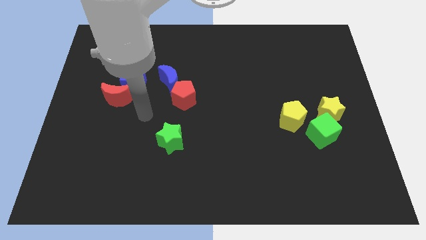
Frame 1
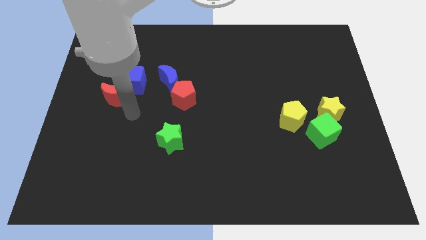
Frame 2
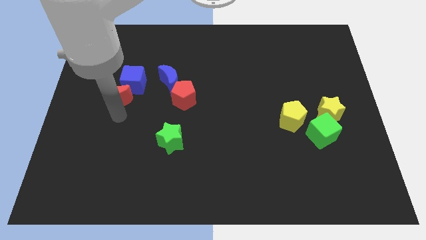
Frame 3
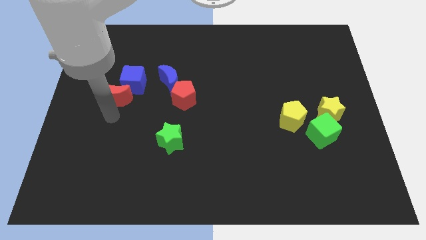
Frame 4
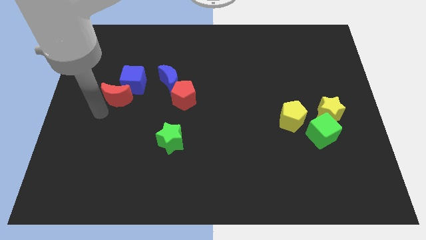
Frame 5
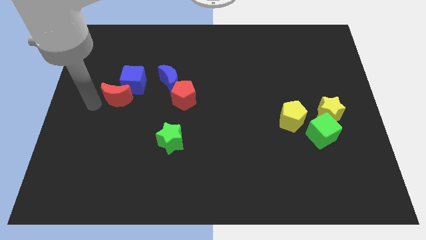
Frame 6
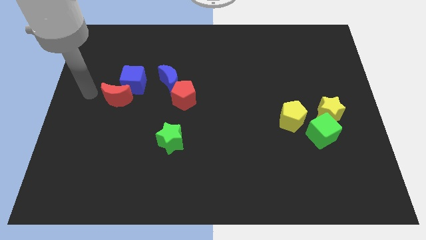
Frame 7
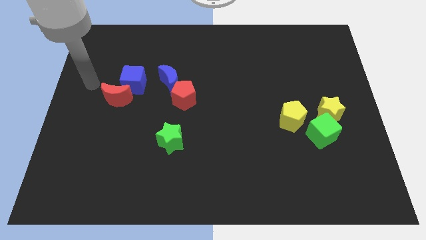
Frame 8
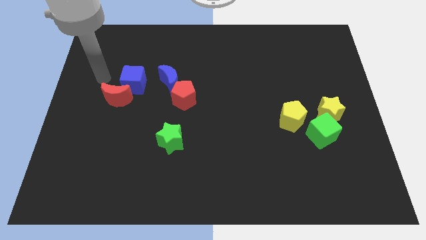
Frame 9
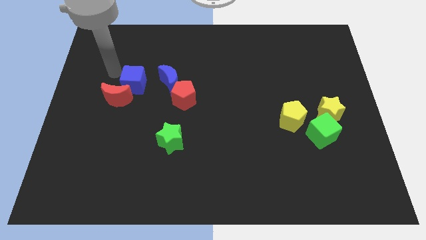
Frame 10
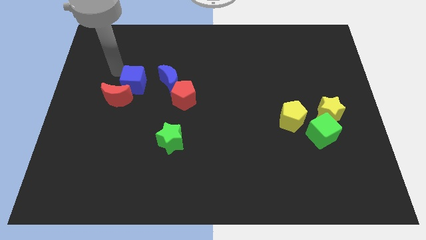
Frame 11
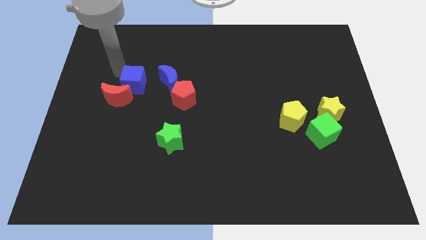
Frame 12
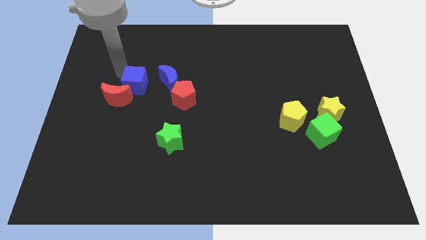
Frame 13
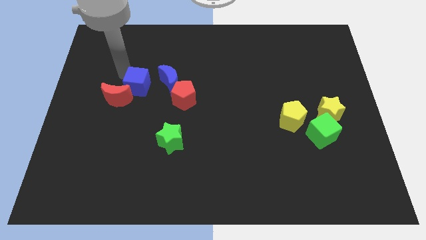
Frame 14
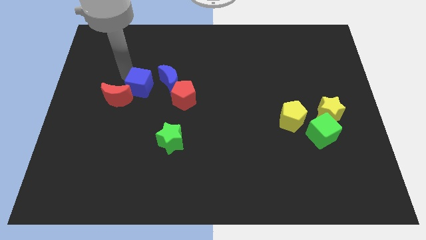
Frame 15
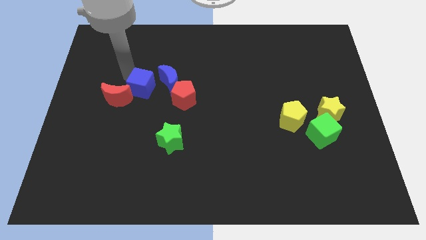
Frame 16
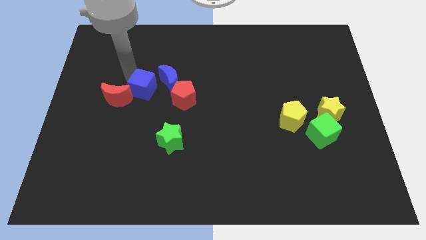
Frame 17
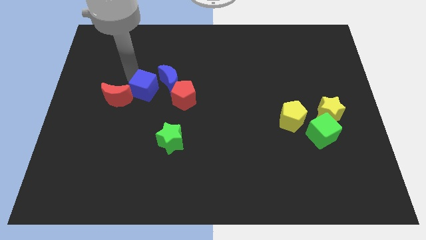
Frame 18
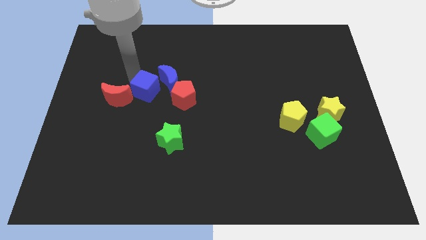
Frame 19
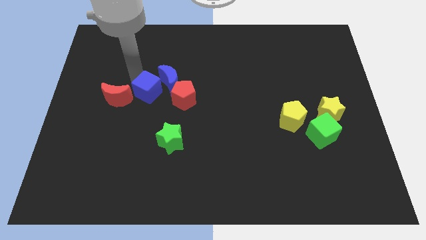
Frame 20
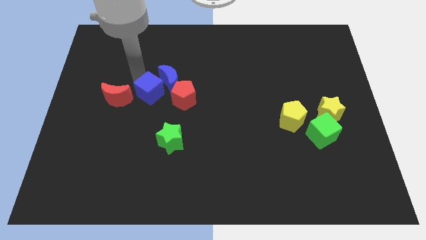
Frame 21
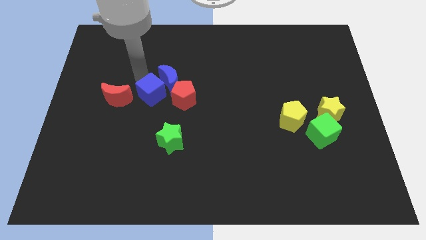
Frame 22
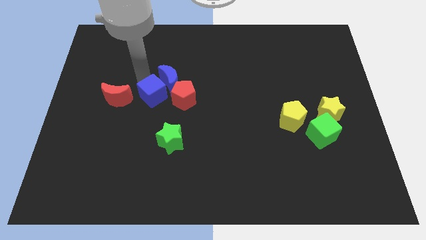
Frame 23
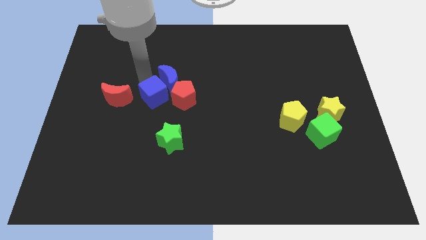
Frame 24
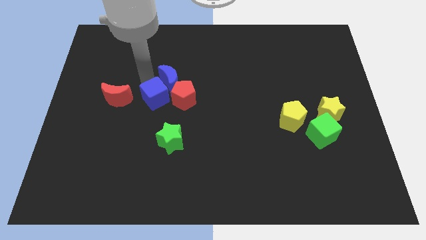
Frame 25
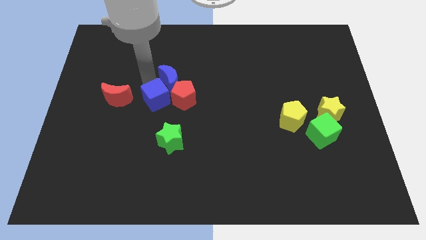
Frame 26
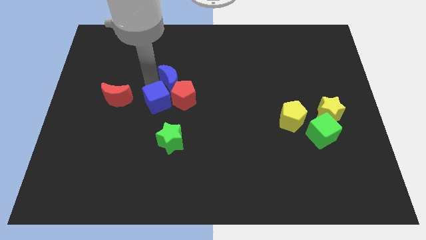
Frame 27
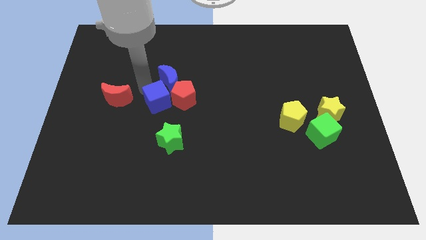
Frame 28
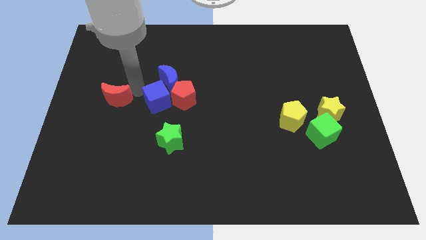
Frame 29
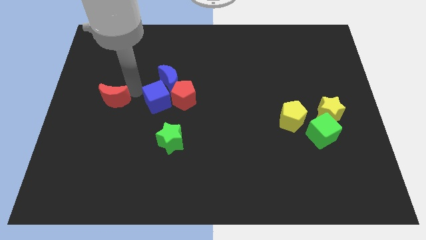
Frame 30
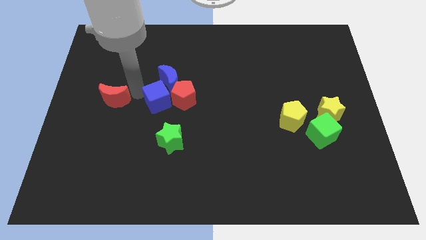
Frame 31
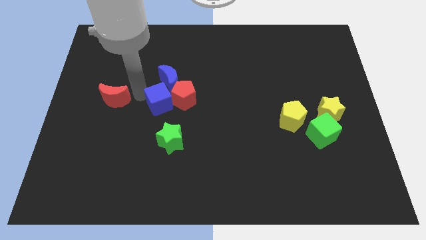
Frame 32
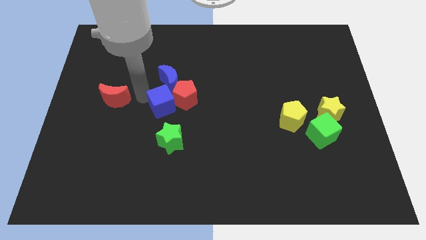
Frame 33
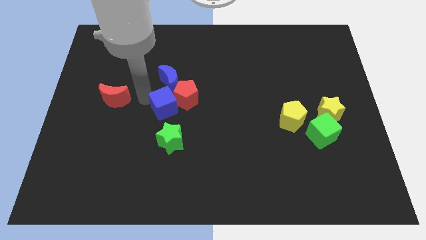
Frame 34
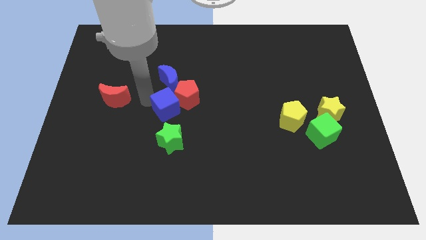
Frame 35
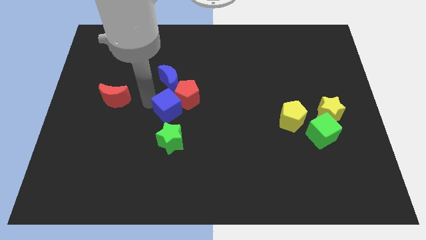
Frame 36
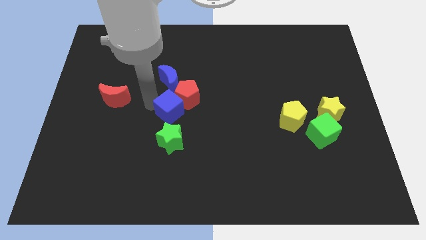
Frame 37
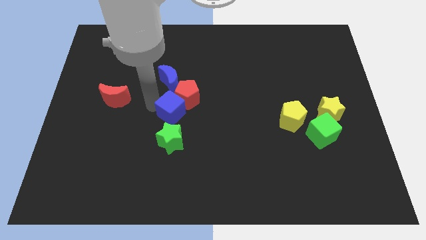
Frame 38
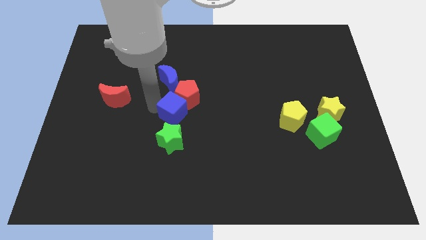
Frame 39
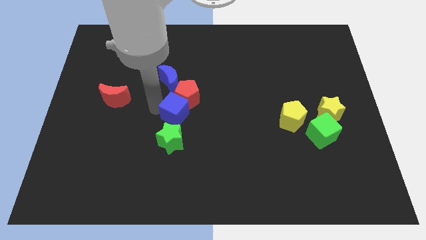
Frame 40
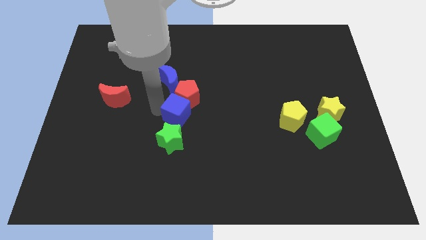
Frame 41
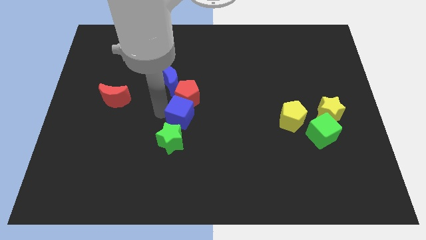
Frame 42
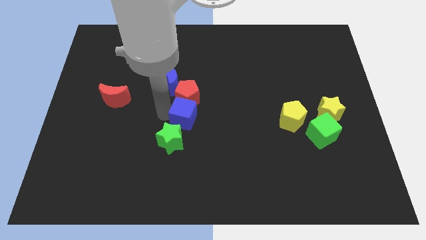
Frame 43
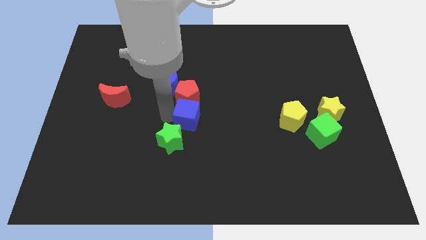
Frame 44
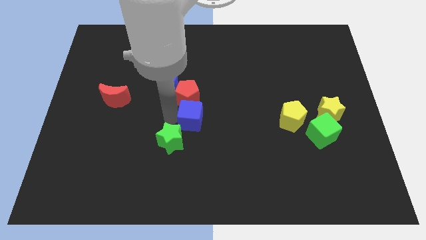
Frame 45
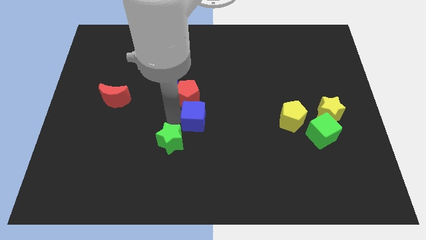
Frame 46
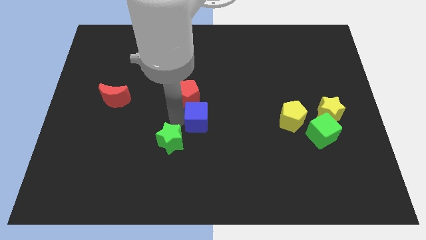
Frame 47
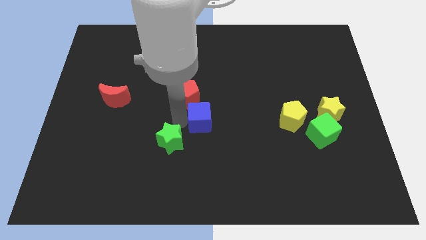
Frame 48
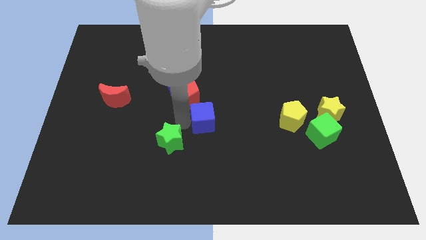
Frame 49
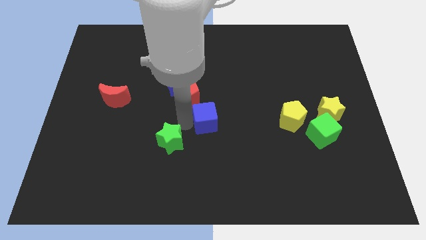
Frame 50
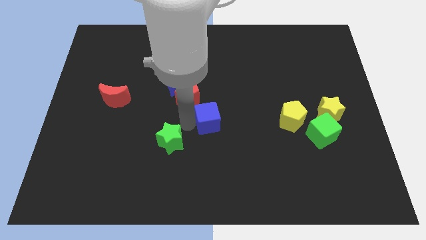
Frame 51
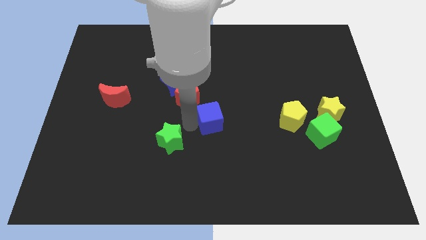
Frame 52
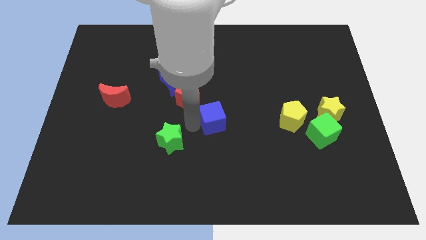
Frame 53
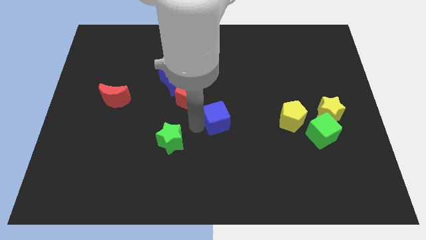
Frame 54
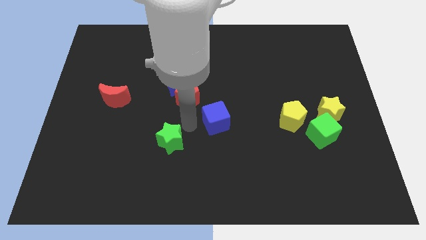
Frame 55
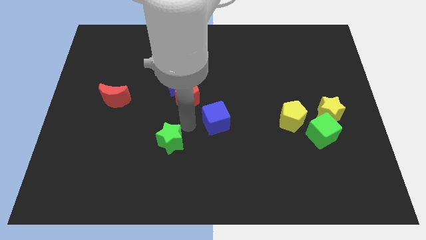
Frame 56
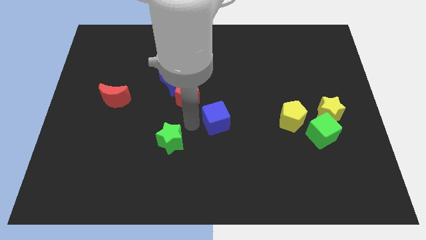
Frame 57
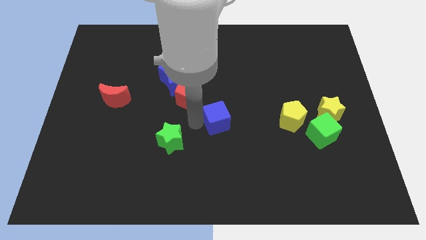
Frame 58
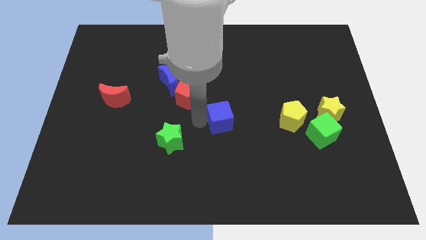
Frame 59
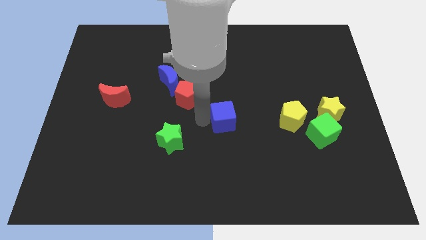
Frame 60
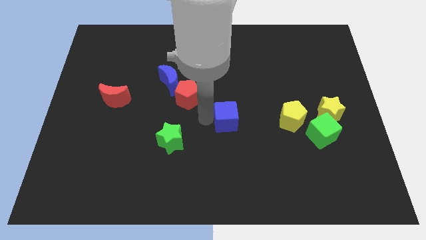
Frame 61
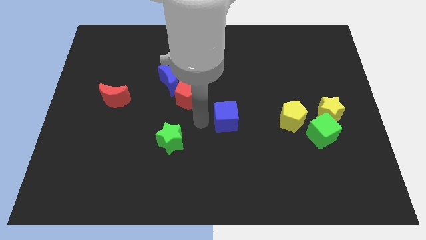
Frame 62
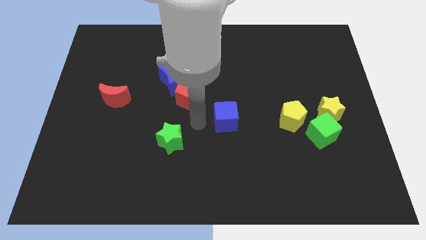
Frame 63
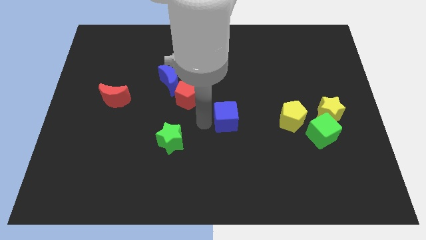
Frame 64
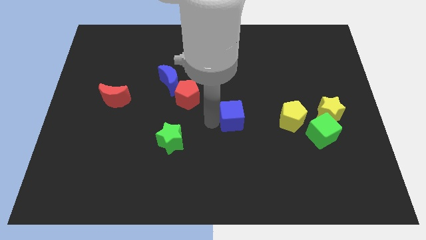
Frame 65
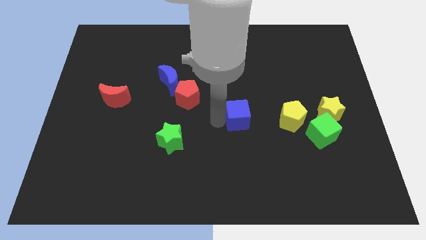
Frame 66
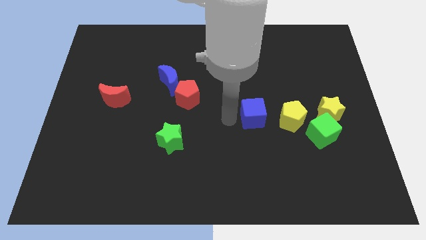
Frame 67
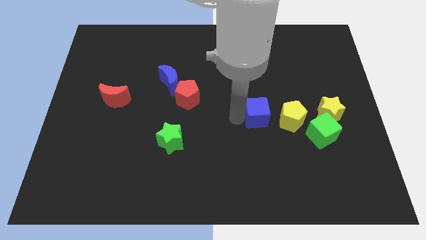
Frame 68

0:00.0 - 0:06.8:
put the blue cube to the left side of the yellow star

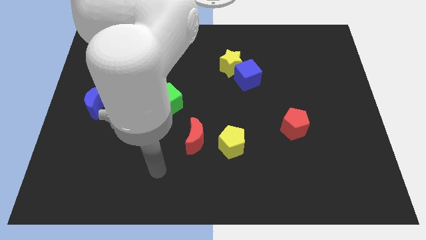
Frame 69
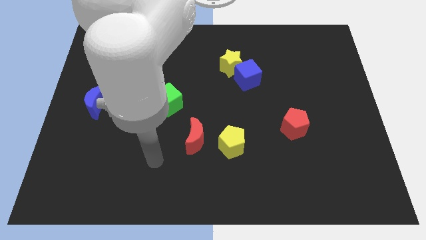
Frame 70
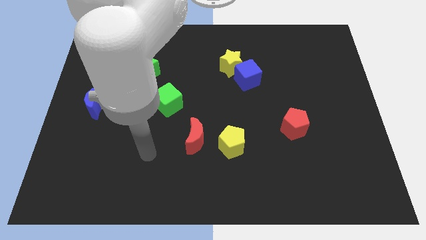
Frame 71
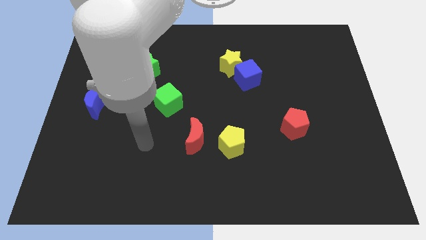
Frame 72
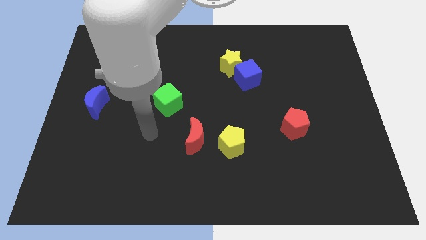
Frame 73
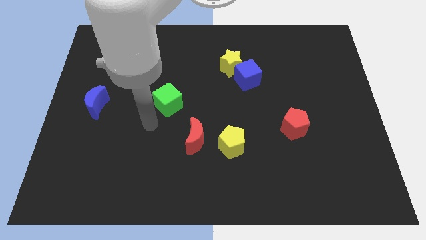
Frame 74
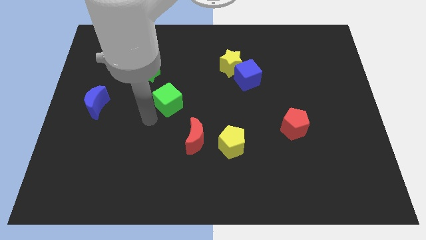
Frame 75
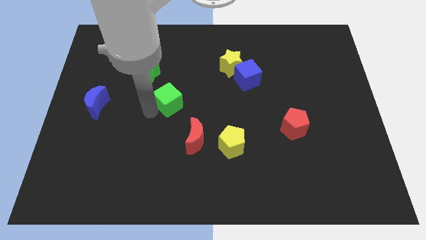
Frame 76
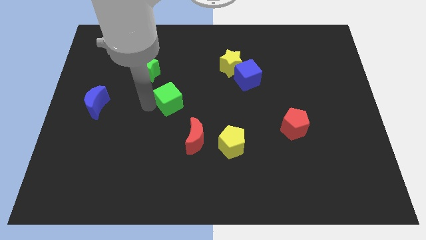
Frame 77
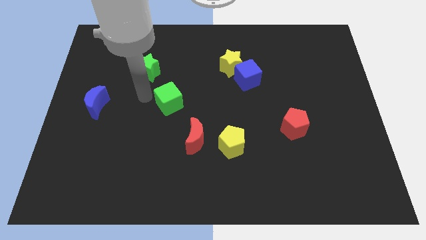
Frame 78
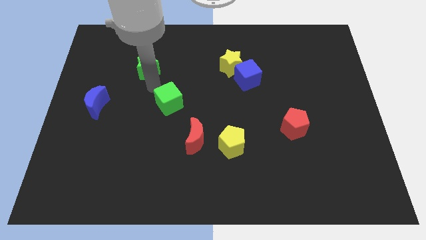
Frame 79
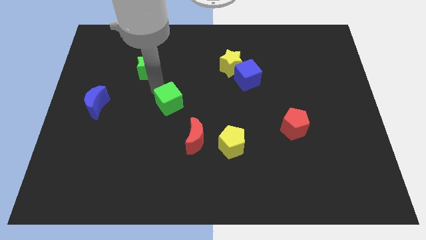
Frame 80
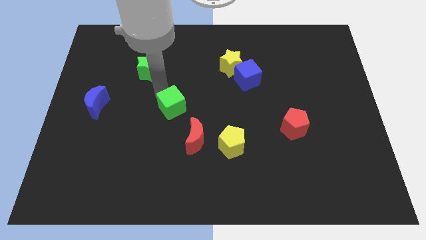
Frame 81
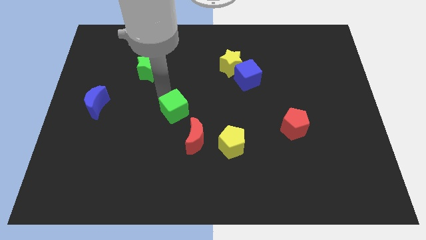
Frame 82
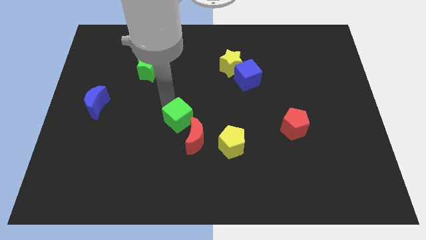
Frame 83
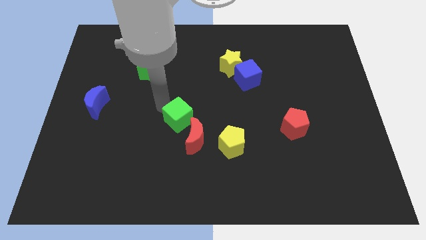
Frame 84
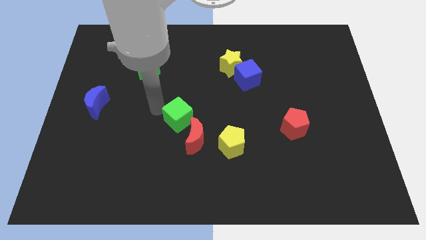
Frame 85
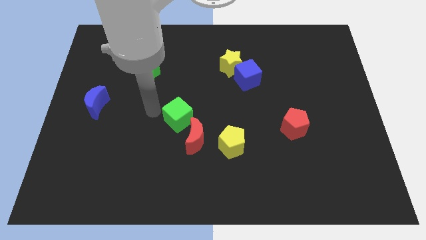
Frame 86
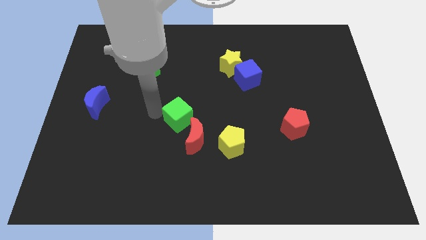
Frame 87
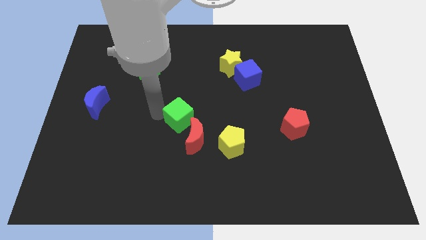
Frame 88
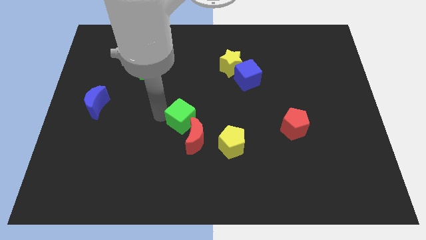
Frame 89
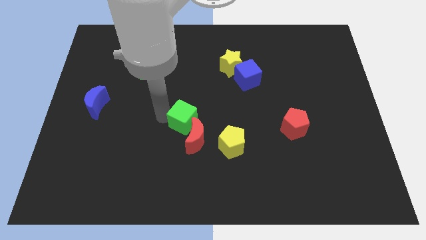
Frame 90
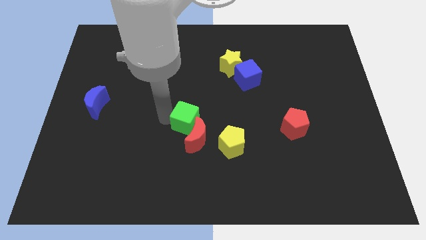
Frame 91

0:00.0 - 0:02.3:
put the green cube diagonally up and to the left of the yellow pentagon
